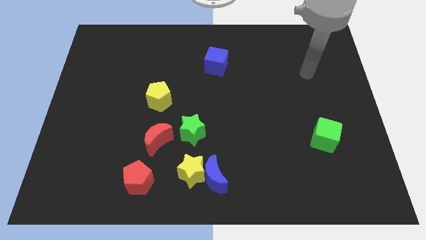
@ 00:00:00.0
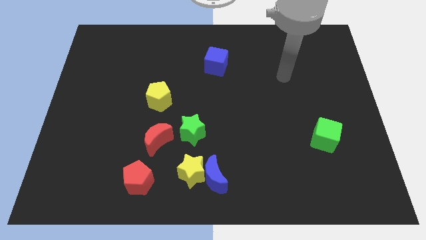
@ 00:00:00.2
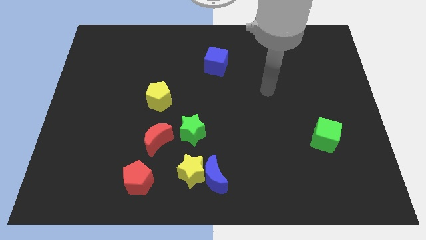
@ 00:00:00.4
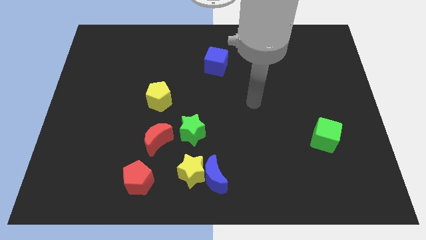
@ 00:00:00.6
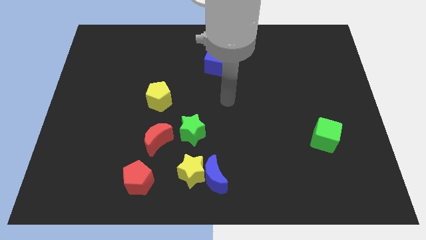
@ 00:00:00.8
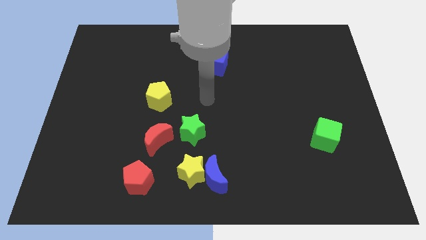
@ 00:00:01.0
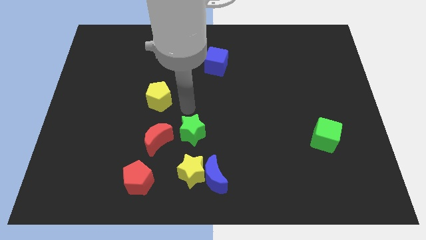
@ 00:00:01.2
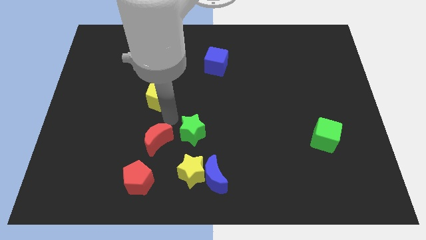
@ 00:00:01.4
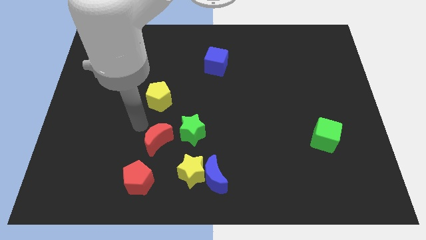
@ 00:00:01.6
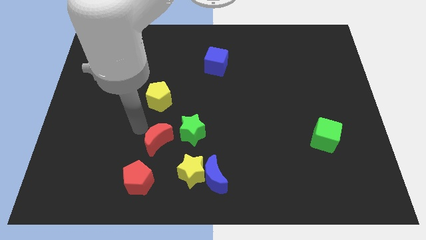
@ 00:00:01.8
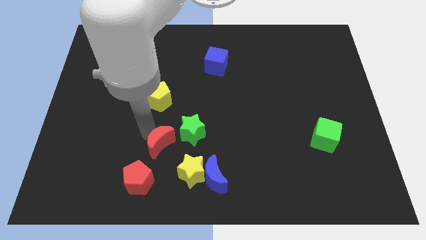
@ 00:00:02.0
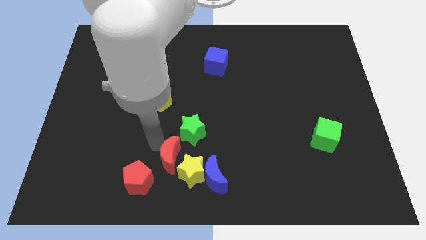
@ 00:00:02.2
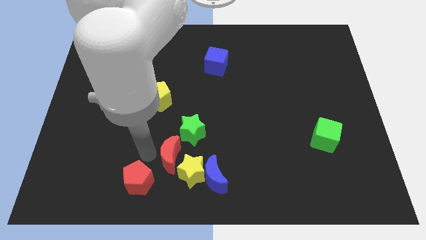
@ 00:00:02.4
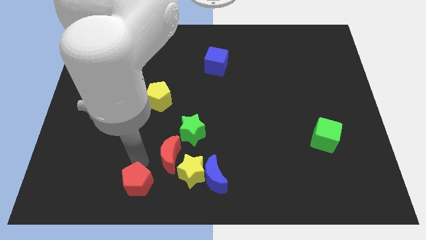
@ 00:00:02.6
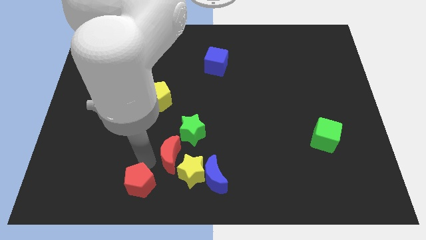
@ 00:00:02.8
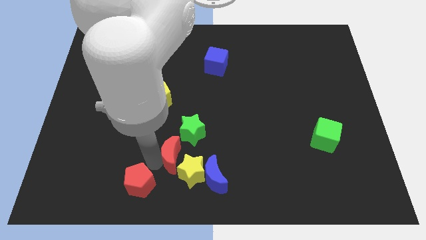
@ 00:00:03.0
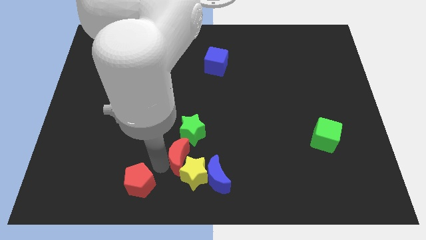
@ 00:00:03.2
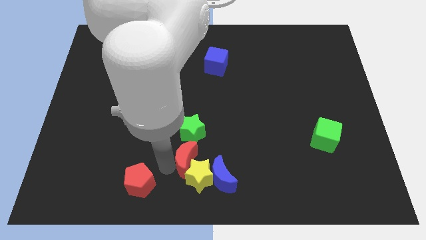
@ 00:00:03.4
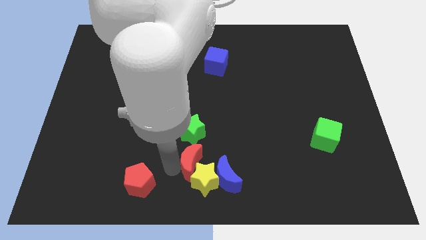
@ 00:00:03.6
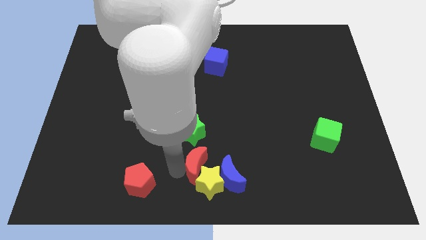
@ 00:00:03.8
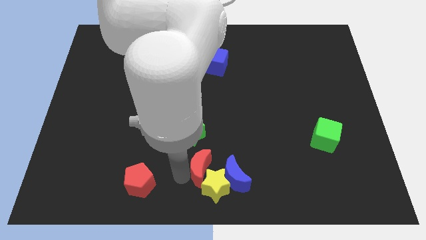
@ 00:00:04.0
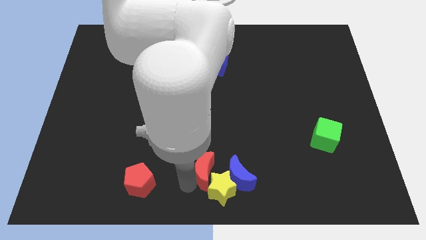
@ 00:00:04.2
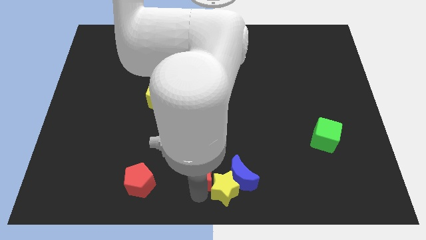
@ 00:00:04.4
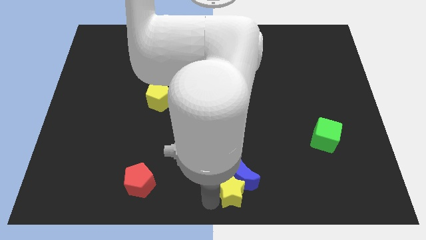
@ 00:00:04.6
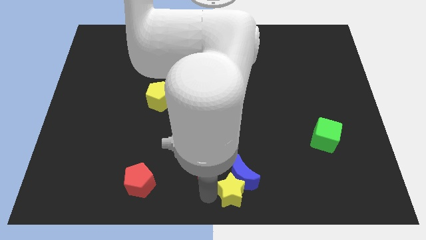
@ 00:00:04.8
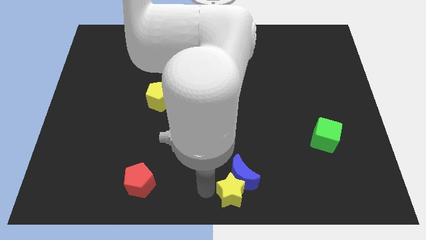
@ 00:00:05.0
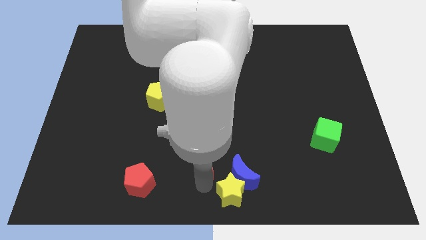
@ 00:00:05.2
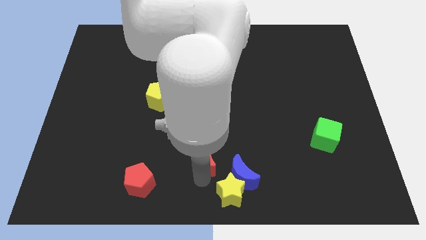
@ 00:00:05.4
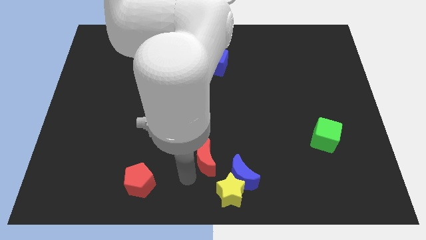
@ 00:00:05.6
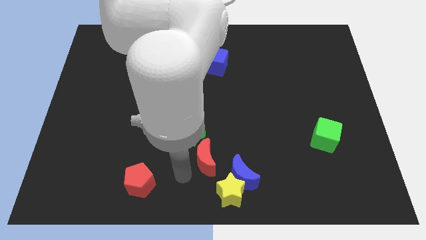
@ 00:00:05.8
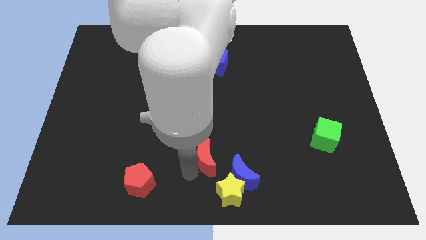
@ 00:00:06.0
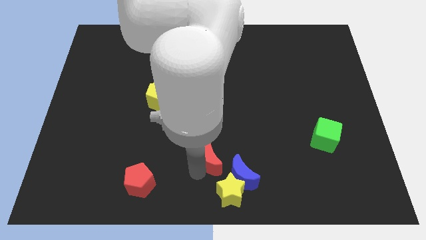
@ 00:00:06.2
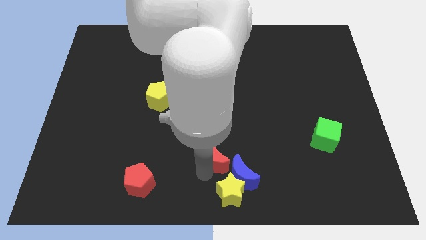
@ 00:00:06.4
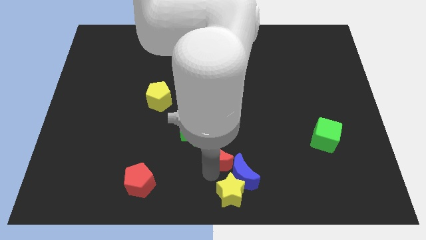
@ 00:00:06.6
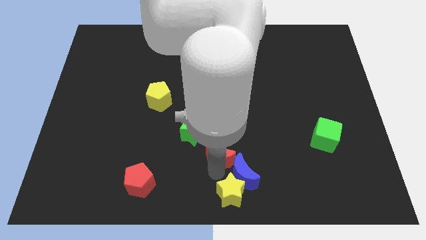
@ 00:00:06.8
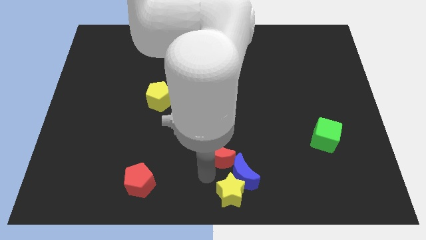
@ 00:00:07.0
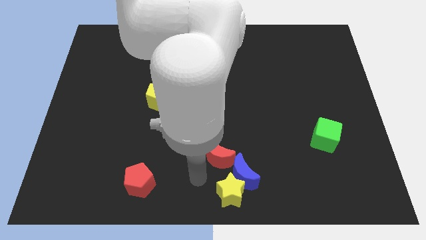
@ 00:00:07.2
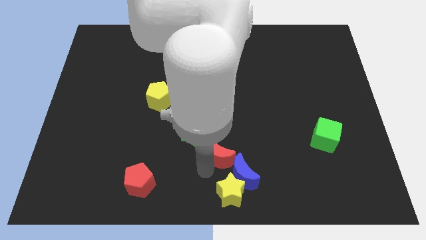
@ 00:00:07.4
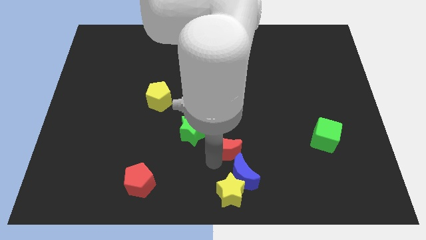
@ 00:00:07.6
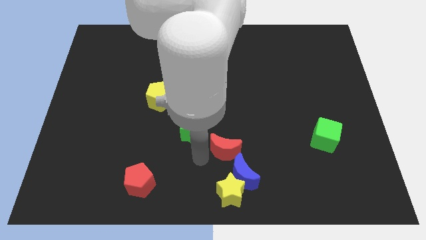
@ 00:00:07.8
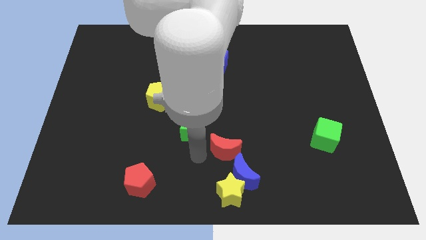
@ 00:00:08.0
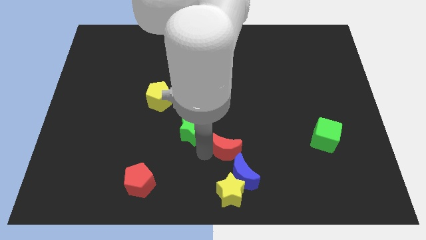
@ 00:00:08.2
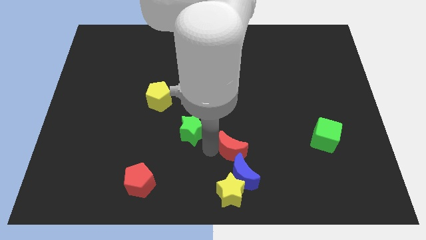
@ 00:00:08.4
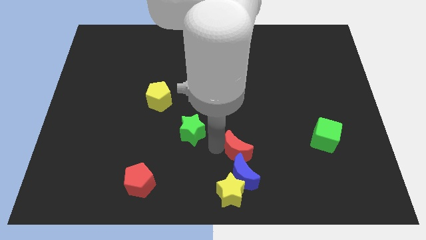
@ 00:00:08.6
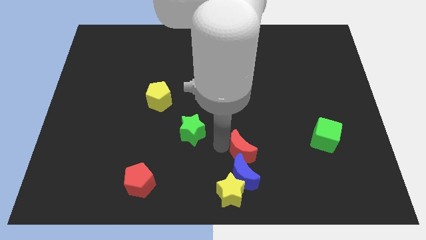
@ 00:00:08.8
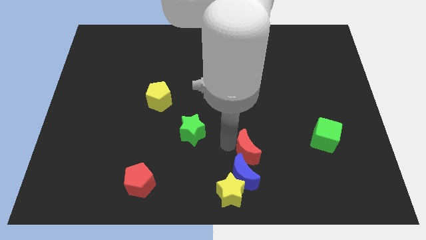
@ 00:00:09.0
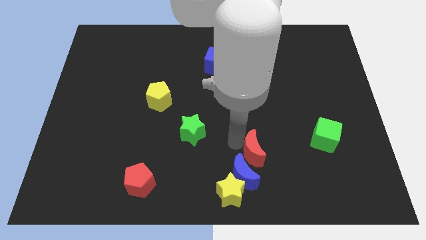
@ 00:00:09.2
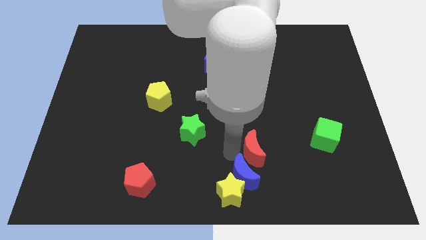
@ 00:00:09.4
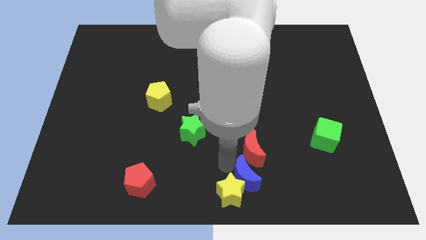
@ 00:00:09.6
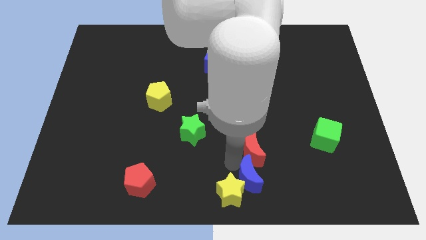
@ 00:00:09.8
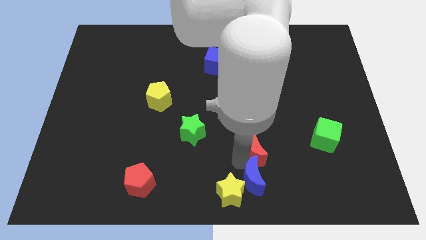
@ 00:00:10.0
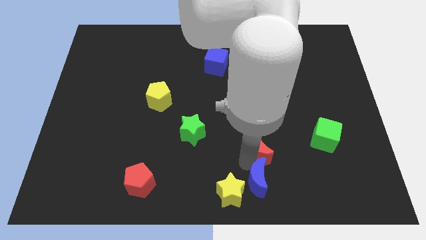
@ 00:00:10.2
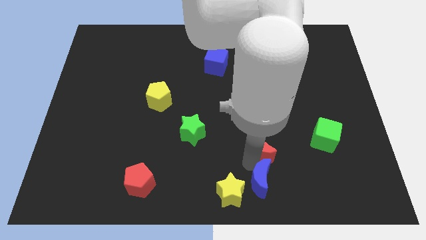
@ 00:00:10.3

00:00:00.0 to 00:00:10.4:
move the red moon left of the green cube

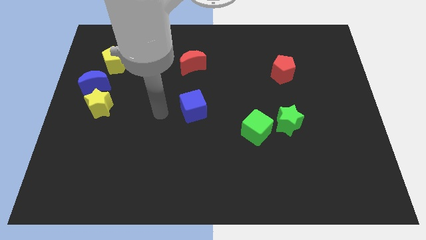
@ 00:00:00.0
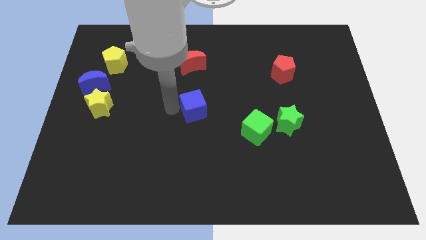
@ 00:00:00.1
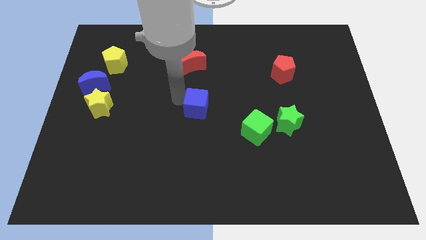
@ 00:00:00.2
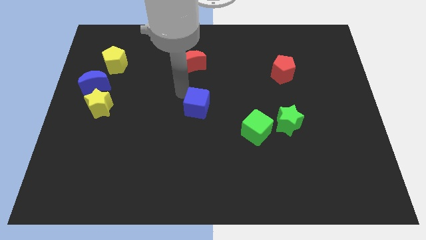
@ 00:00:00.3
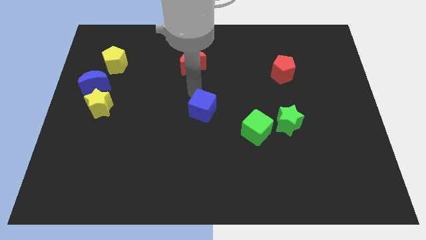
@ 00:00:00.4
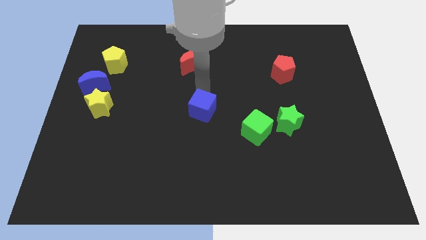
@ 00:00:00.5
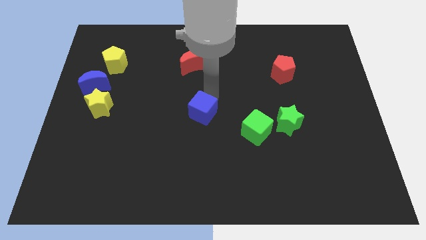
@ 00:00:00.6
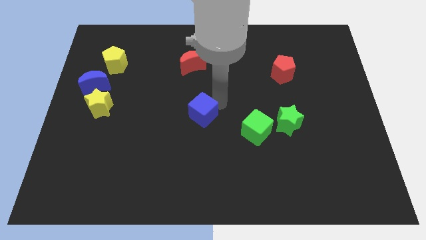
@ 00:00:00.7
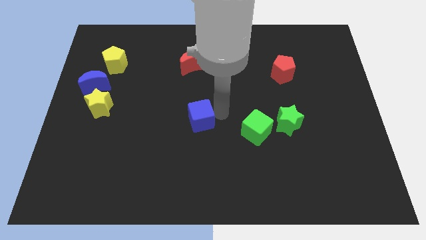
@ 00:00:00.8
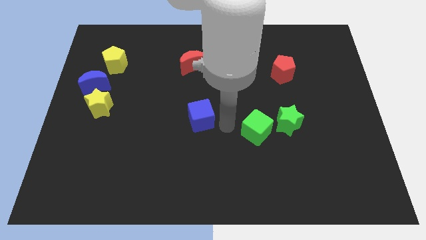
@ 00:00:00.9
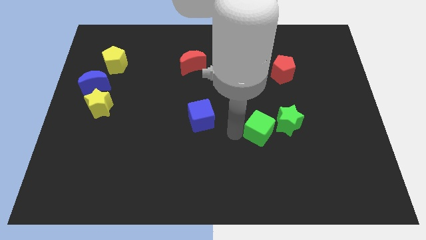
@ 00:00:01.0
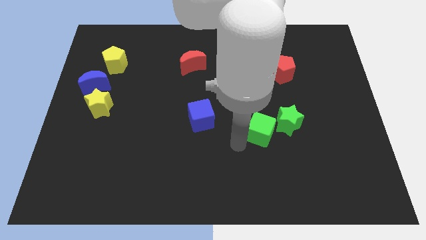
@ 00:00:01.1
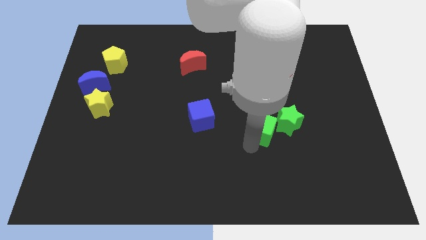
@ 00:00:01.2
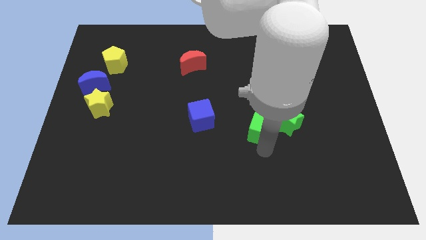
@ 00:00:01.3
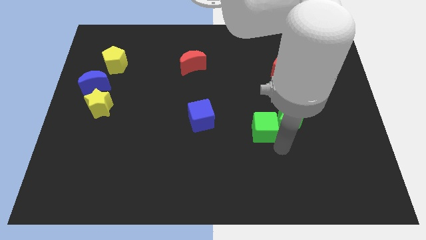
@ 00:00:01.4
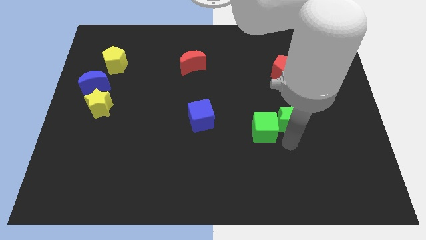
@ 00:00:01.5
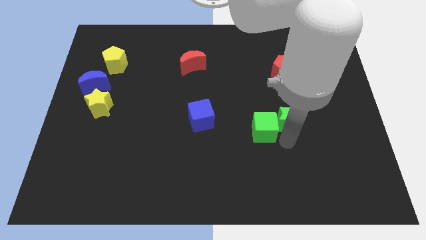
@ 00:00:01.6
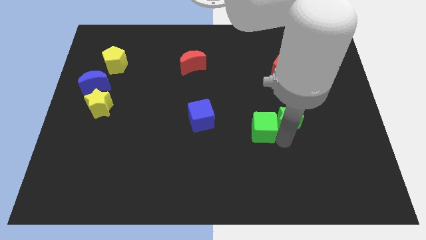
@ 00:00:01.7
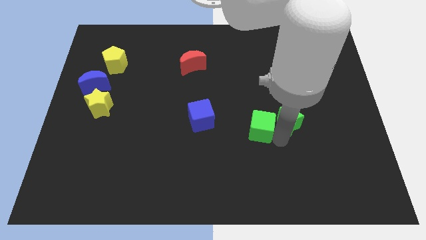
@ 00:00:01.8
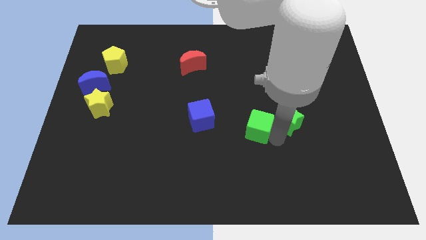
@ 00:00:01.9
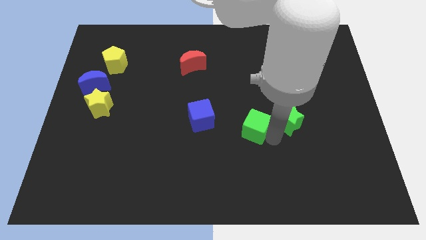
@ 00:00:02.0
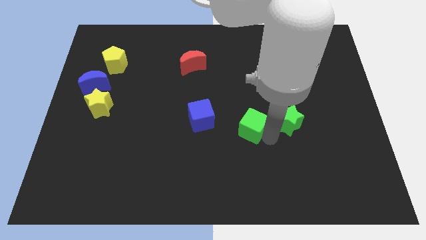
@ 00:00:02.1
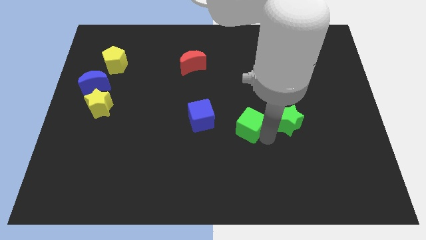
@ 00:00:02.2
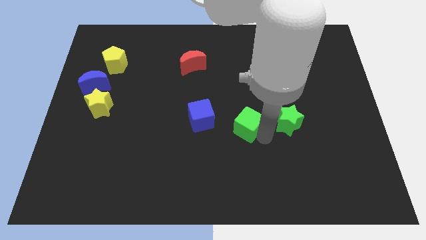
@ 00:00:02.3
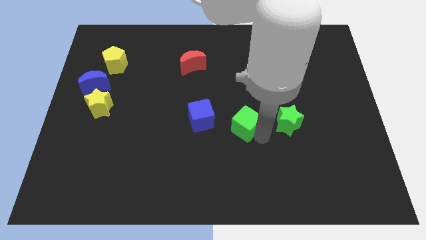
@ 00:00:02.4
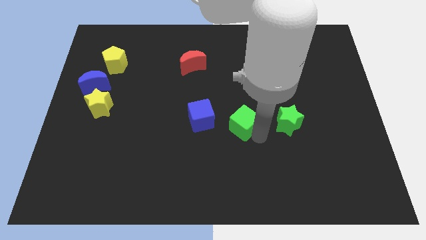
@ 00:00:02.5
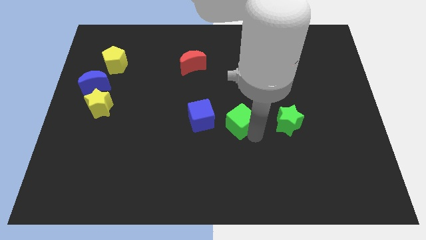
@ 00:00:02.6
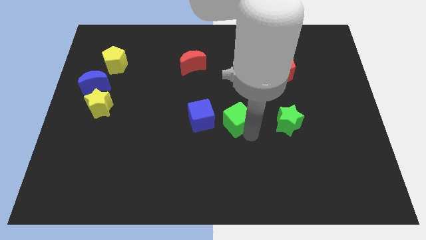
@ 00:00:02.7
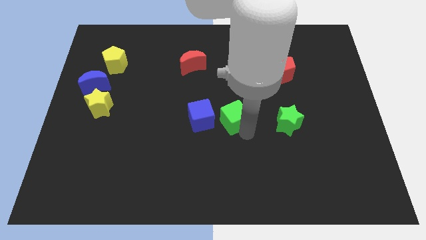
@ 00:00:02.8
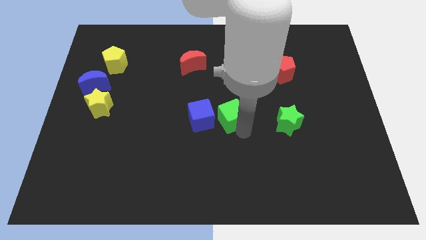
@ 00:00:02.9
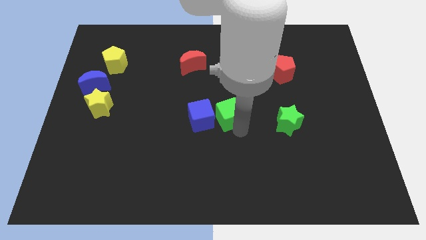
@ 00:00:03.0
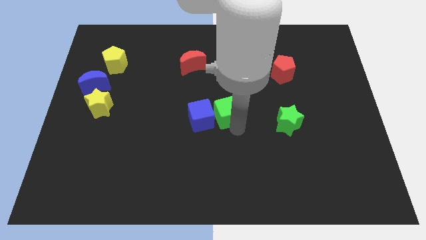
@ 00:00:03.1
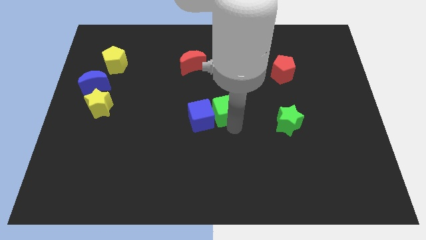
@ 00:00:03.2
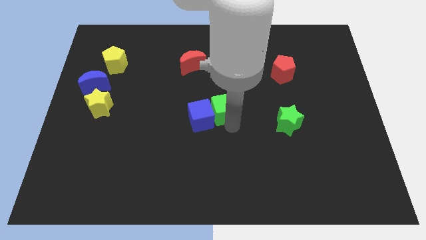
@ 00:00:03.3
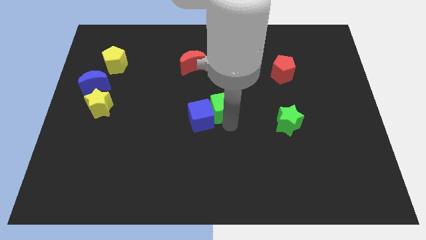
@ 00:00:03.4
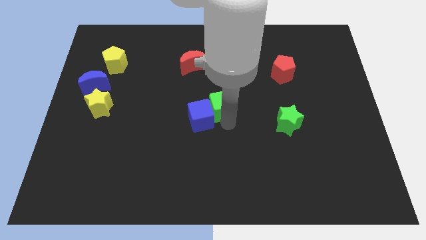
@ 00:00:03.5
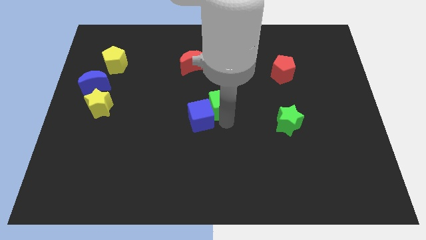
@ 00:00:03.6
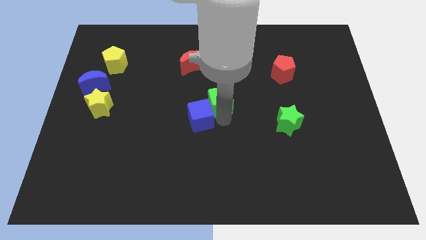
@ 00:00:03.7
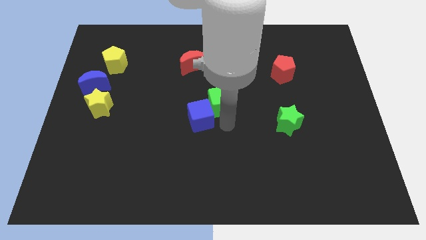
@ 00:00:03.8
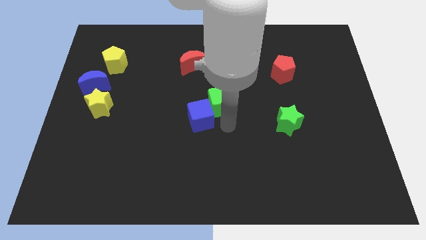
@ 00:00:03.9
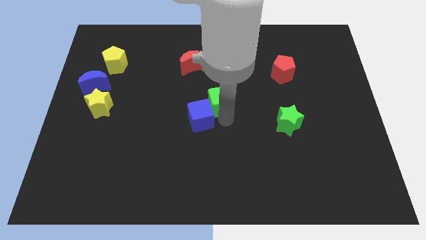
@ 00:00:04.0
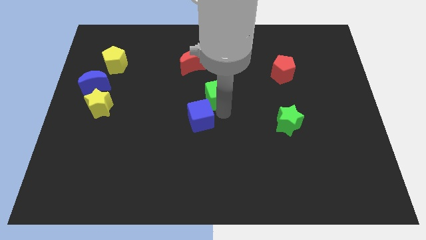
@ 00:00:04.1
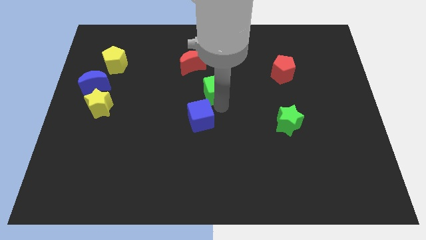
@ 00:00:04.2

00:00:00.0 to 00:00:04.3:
put the green cube to the bottom right side of the red moon
